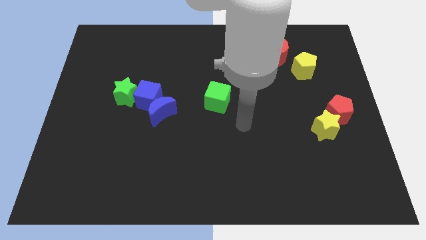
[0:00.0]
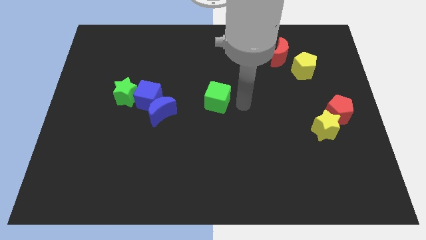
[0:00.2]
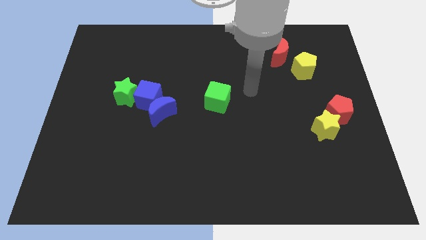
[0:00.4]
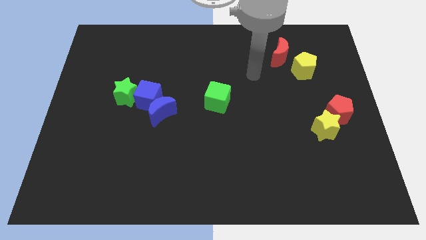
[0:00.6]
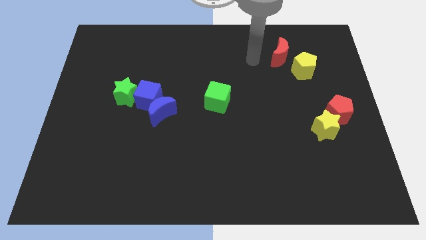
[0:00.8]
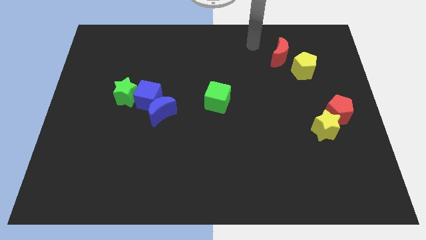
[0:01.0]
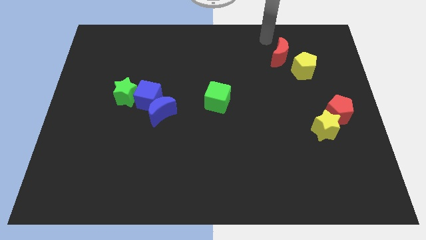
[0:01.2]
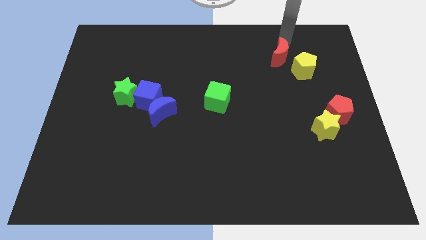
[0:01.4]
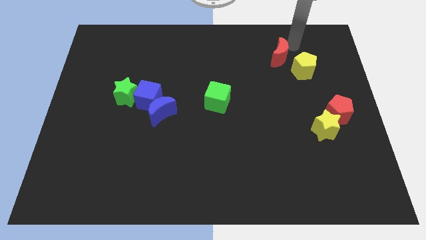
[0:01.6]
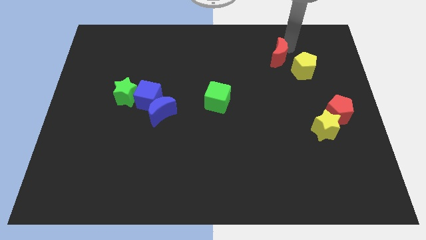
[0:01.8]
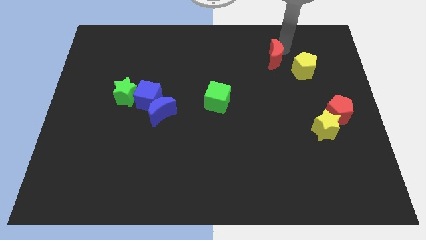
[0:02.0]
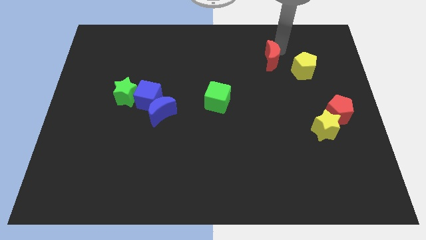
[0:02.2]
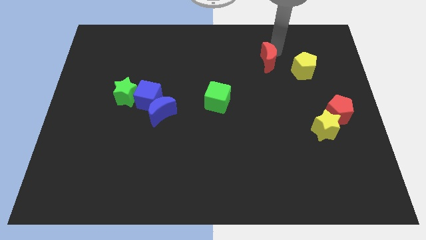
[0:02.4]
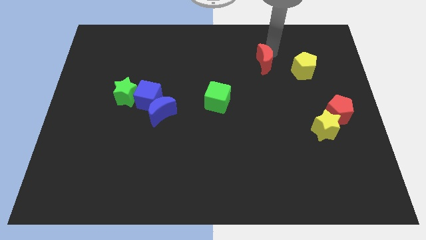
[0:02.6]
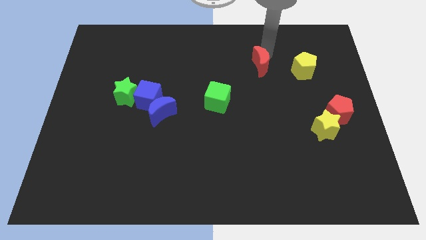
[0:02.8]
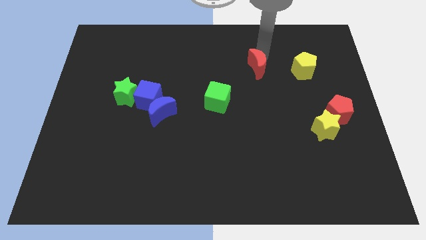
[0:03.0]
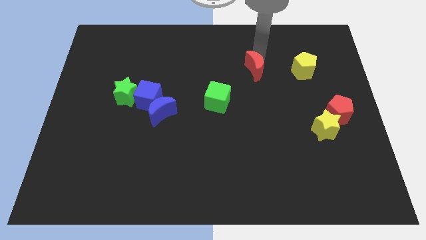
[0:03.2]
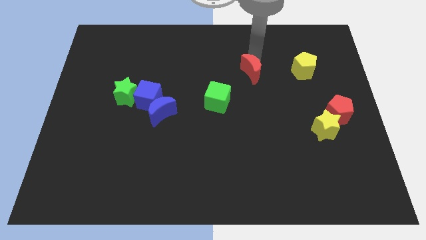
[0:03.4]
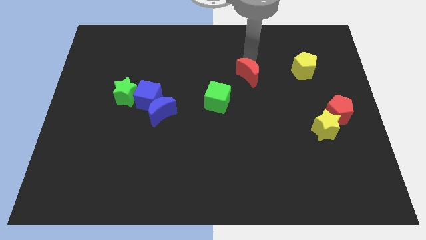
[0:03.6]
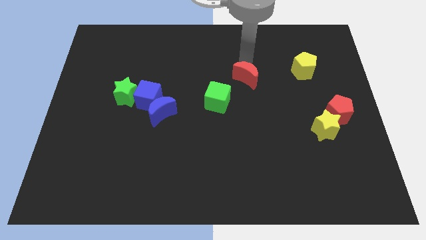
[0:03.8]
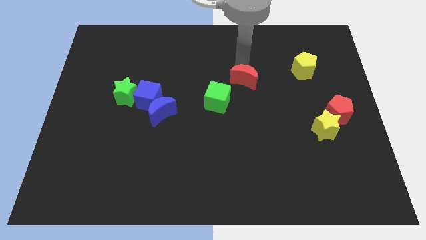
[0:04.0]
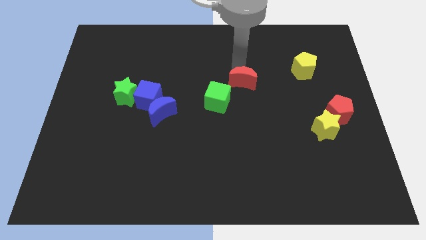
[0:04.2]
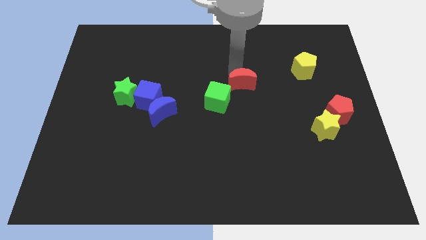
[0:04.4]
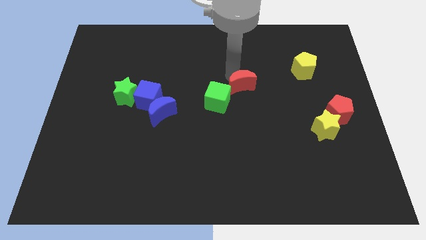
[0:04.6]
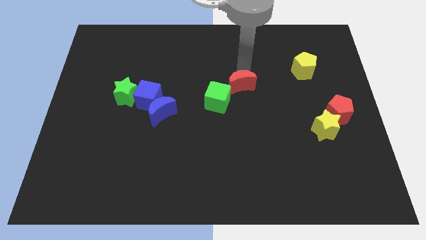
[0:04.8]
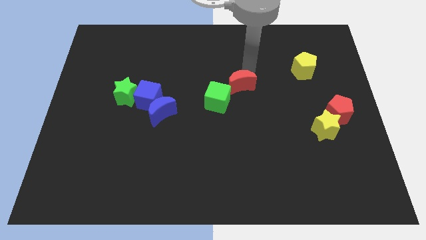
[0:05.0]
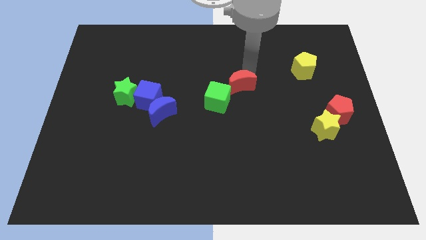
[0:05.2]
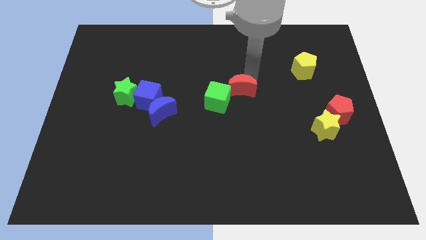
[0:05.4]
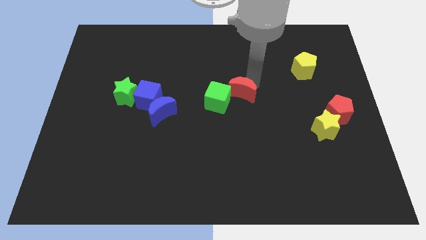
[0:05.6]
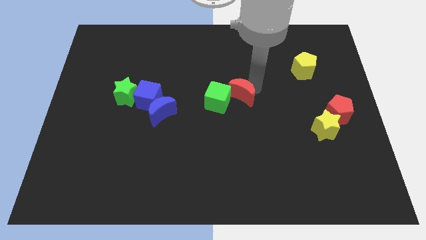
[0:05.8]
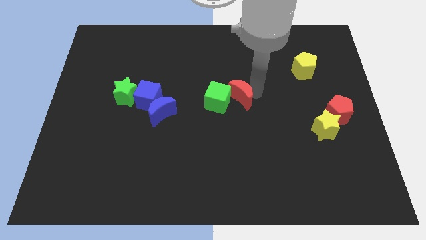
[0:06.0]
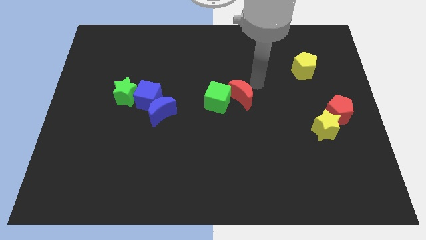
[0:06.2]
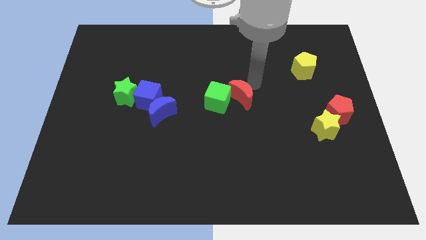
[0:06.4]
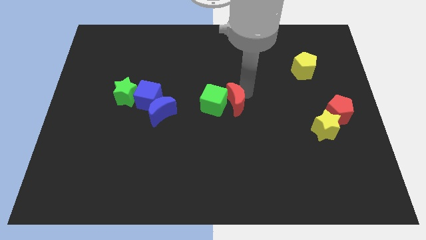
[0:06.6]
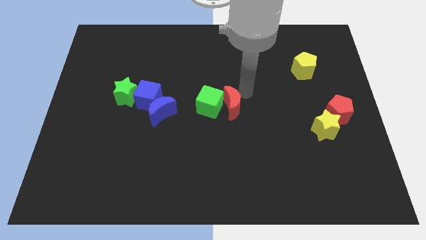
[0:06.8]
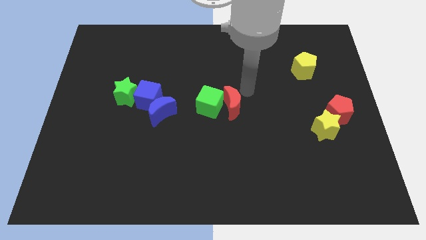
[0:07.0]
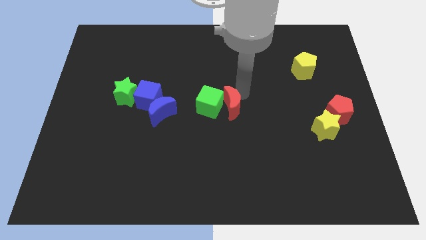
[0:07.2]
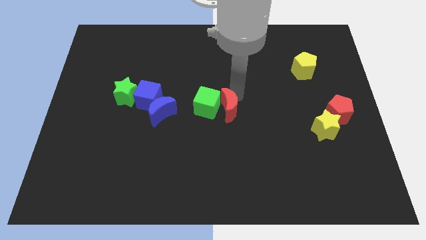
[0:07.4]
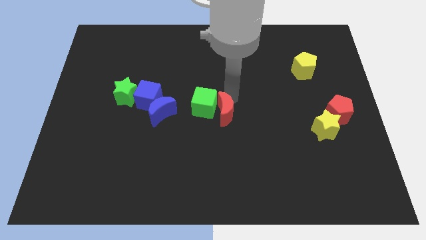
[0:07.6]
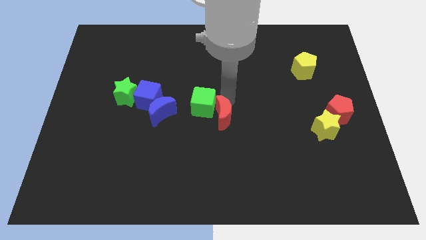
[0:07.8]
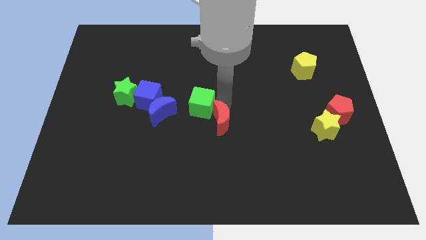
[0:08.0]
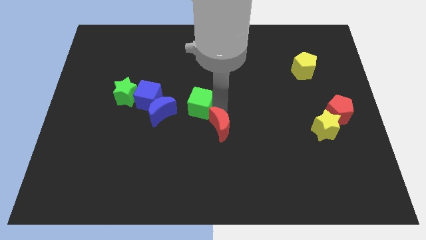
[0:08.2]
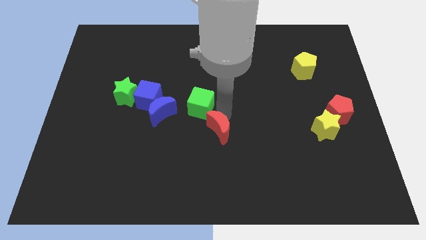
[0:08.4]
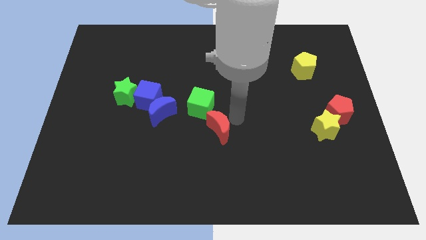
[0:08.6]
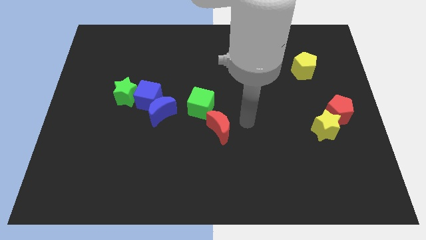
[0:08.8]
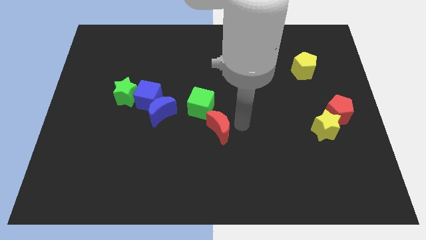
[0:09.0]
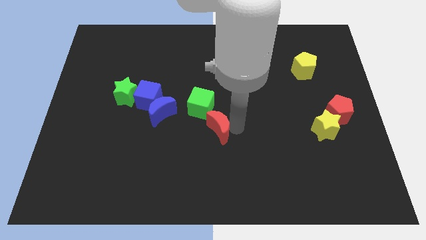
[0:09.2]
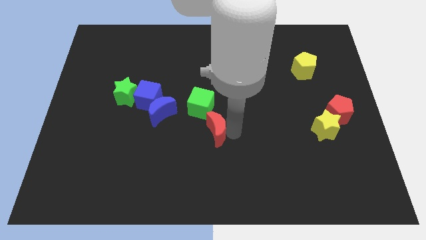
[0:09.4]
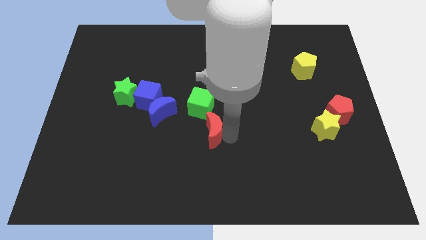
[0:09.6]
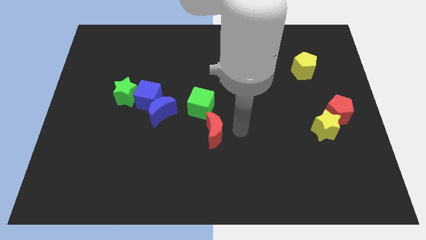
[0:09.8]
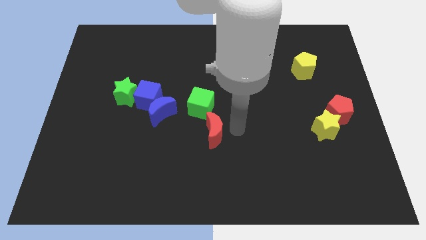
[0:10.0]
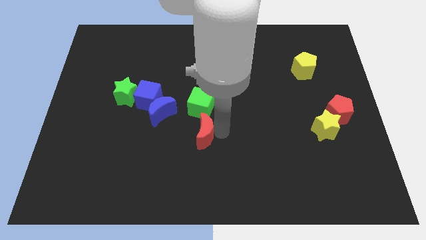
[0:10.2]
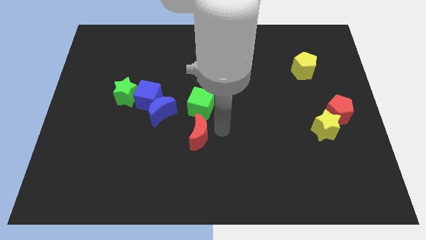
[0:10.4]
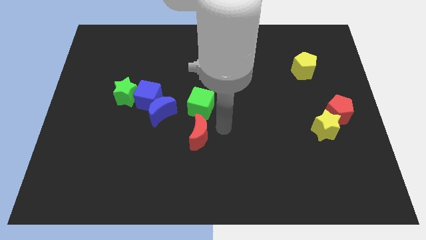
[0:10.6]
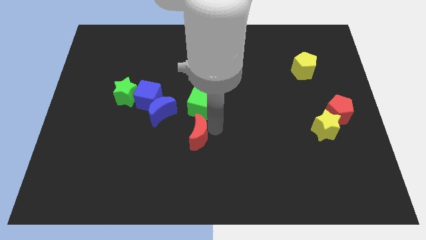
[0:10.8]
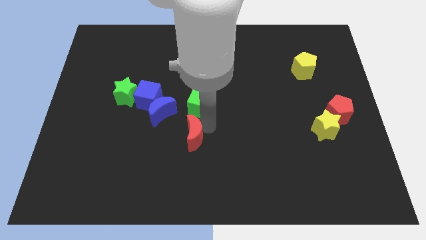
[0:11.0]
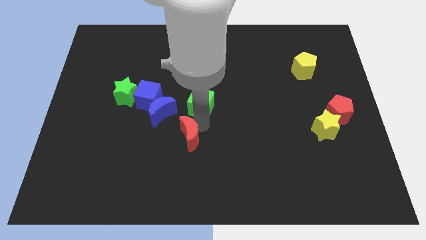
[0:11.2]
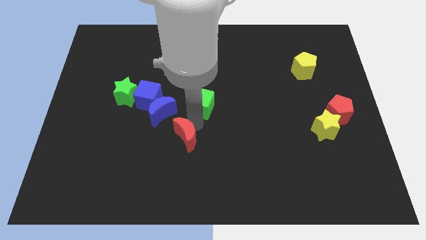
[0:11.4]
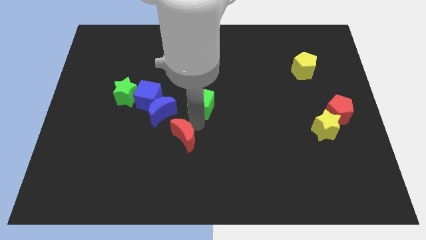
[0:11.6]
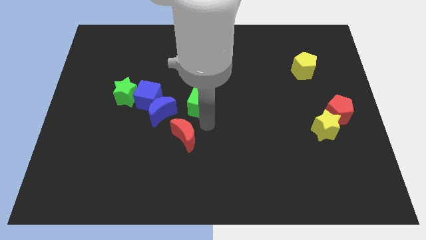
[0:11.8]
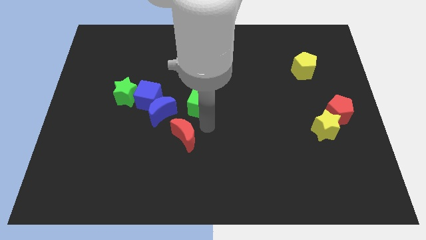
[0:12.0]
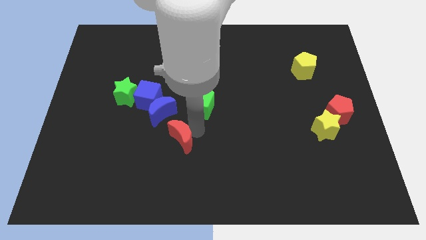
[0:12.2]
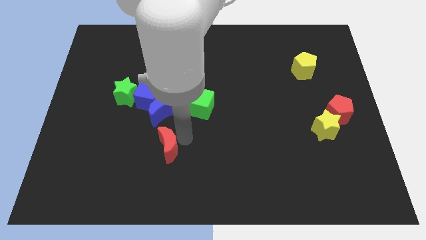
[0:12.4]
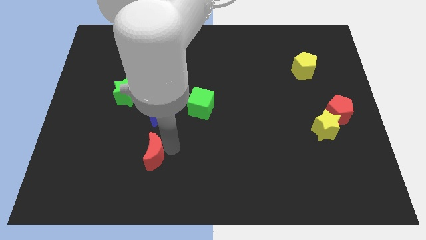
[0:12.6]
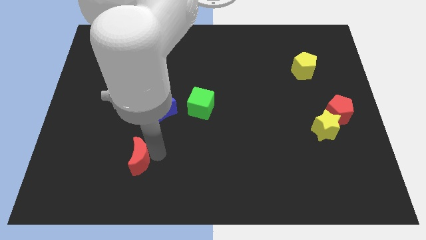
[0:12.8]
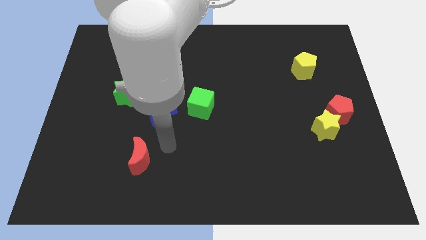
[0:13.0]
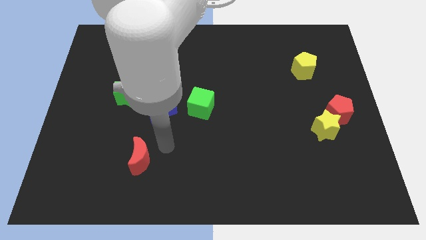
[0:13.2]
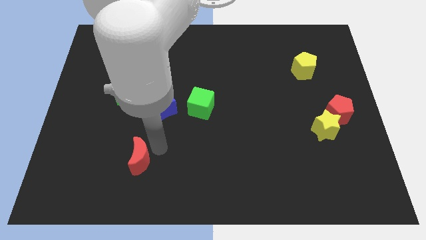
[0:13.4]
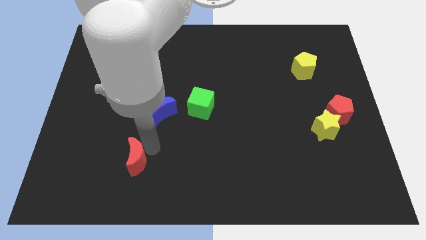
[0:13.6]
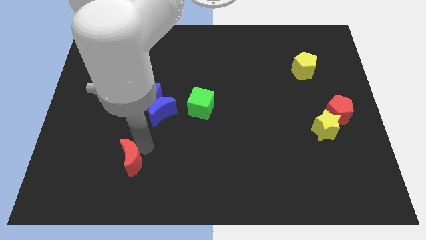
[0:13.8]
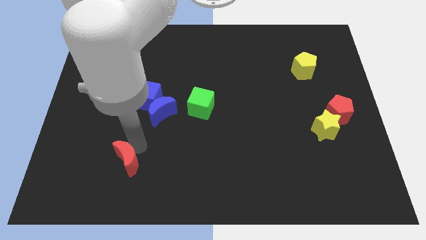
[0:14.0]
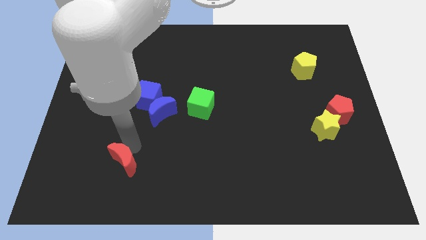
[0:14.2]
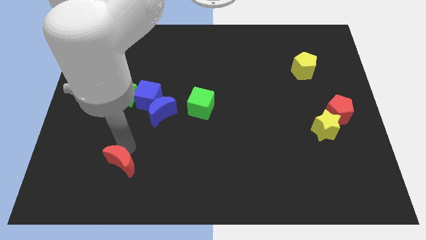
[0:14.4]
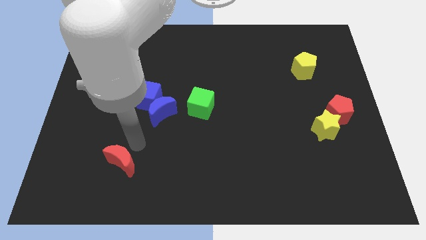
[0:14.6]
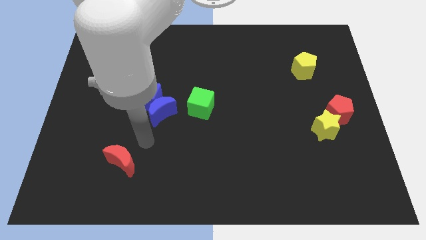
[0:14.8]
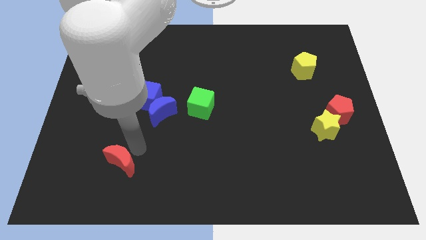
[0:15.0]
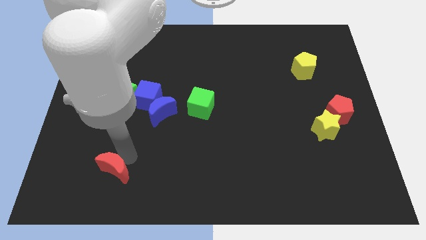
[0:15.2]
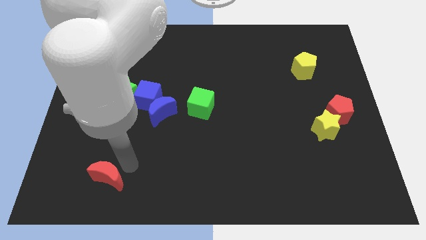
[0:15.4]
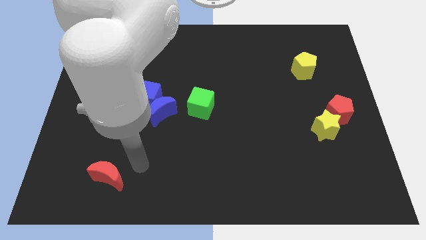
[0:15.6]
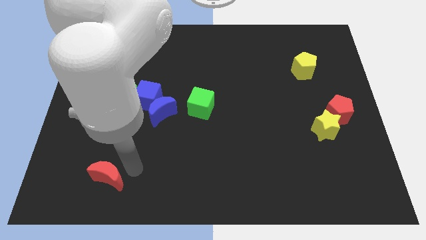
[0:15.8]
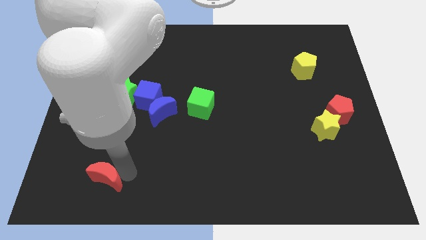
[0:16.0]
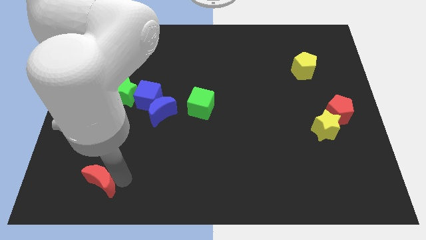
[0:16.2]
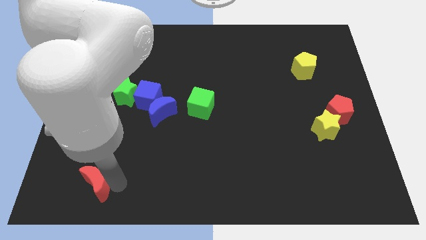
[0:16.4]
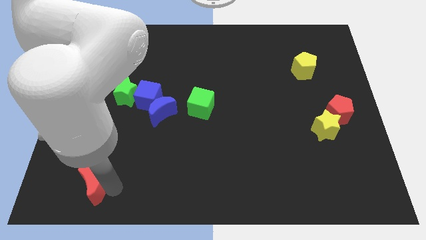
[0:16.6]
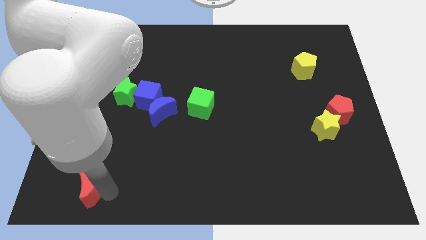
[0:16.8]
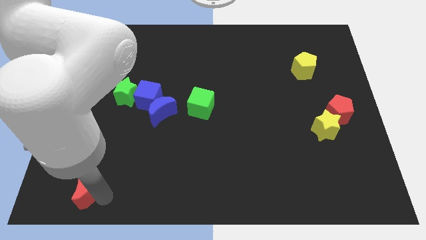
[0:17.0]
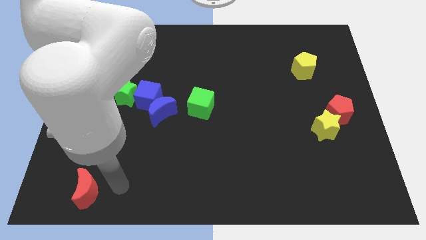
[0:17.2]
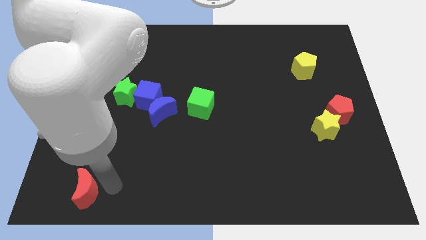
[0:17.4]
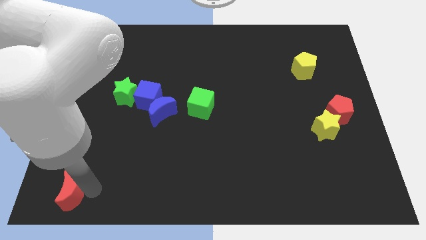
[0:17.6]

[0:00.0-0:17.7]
put the red moon to the bottom left corner
